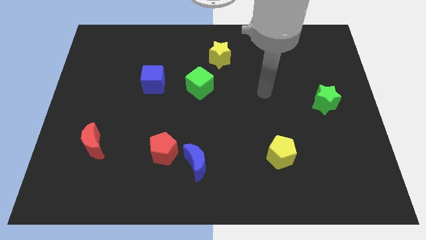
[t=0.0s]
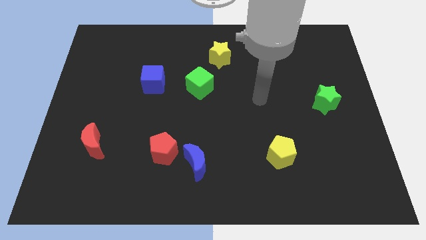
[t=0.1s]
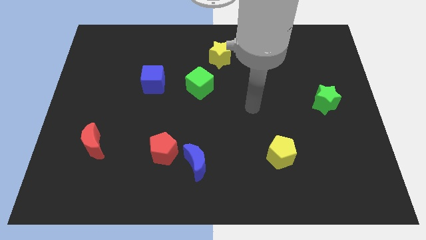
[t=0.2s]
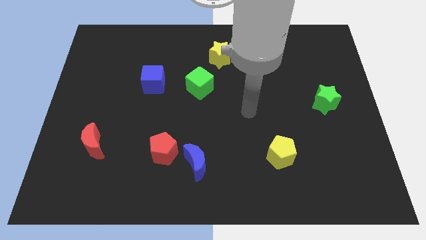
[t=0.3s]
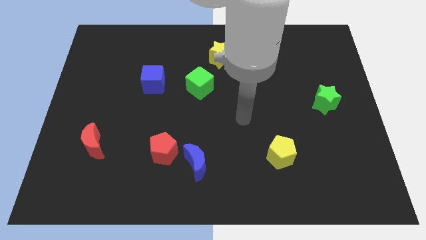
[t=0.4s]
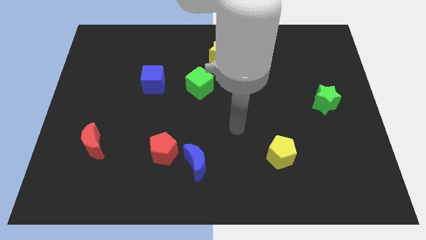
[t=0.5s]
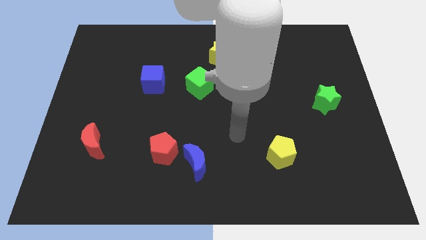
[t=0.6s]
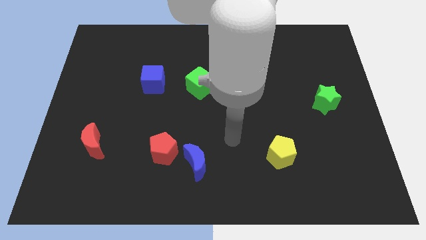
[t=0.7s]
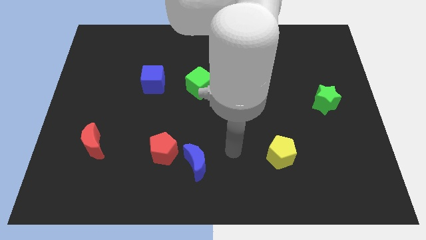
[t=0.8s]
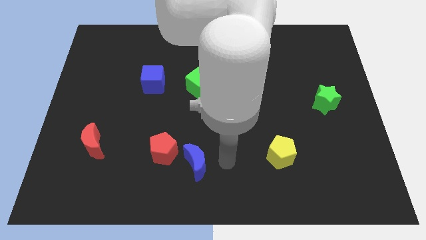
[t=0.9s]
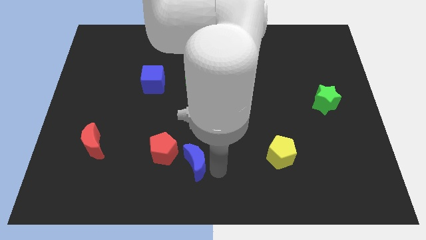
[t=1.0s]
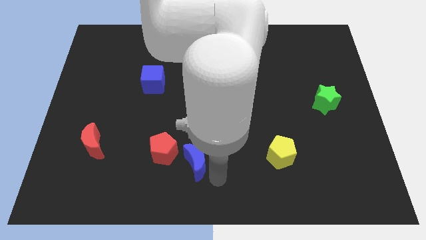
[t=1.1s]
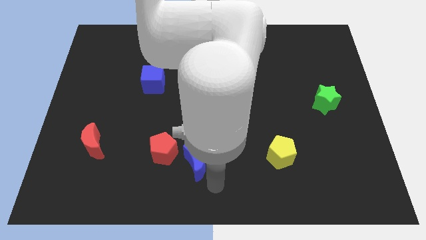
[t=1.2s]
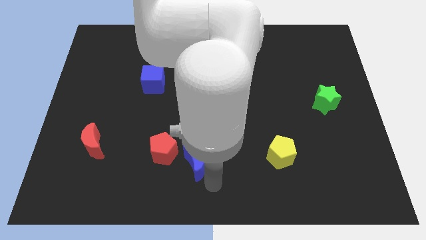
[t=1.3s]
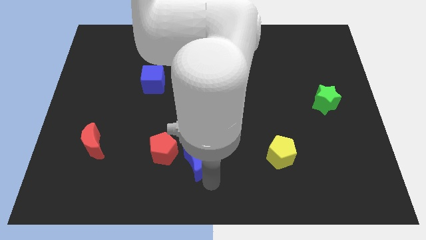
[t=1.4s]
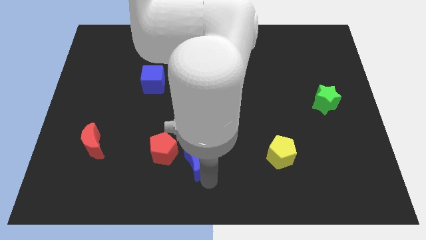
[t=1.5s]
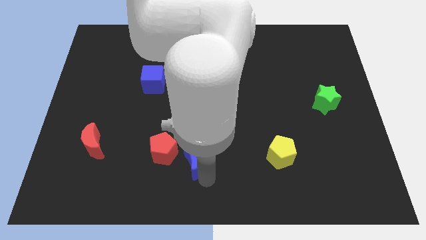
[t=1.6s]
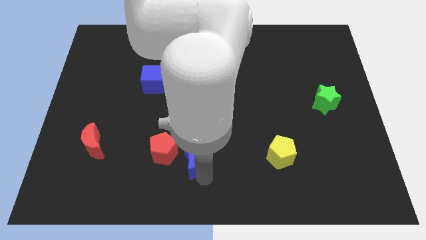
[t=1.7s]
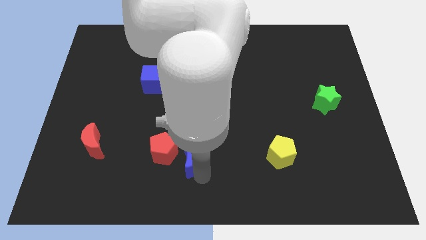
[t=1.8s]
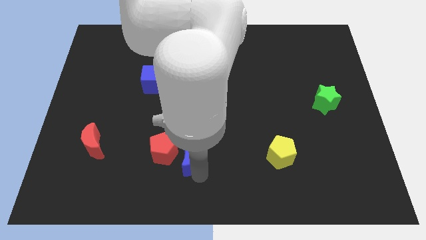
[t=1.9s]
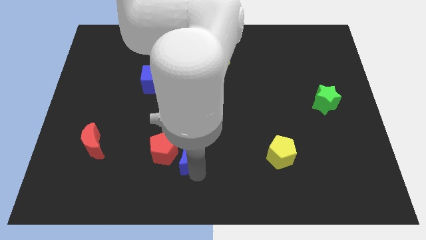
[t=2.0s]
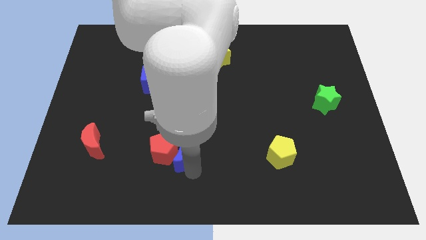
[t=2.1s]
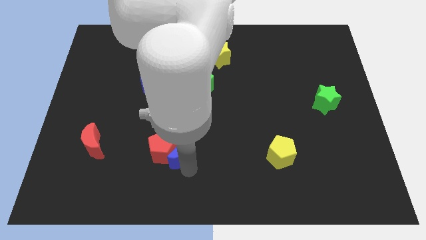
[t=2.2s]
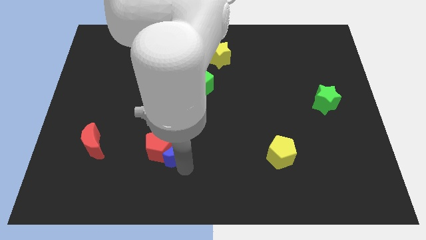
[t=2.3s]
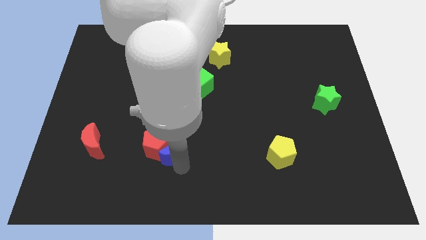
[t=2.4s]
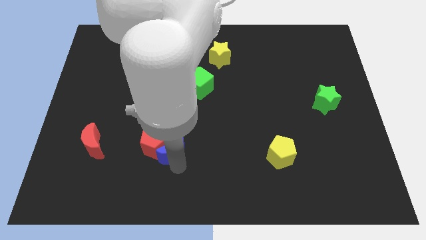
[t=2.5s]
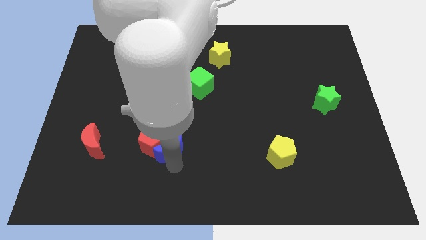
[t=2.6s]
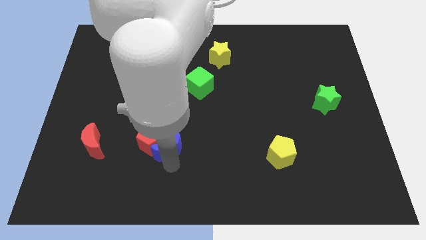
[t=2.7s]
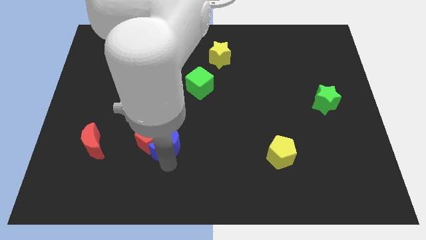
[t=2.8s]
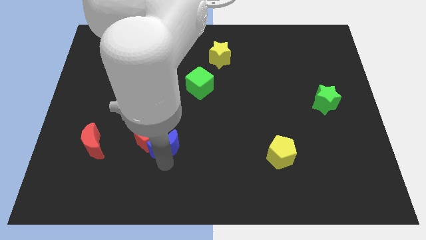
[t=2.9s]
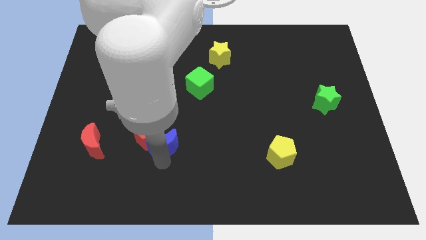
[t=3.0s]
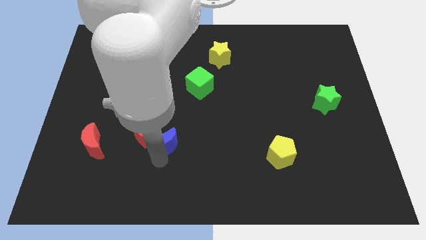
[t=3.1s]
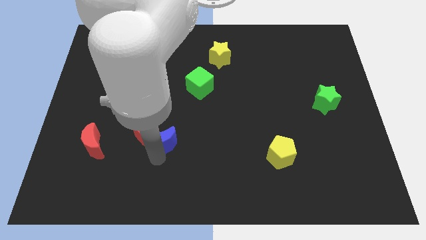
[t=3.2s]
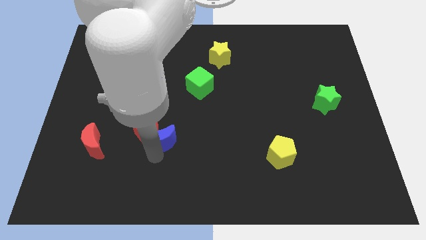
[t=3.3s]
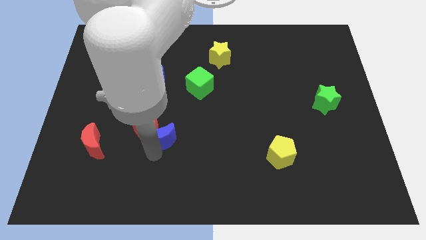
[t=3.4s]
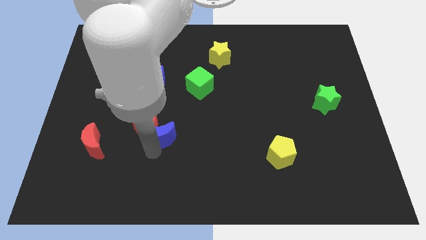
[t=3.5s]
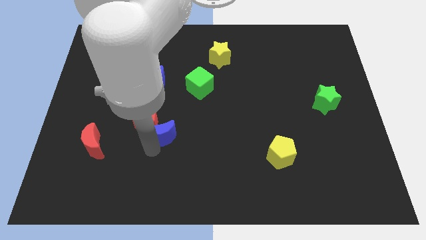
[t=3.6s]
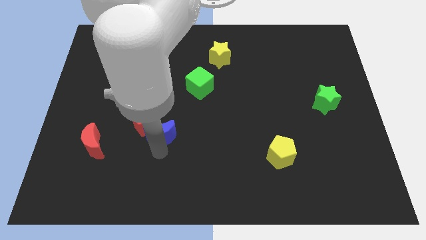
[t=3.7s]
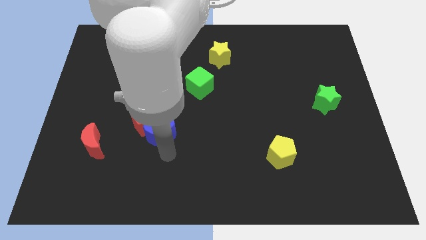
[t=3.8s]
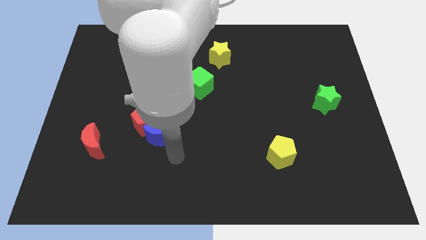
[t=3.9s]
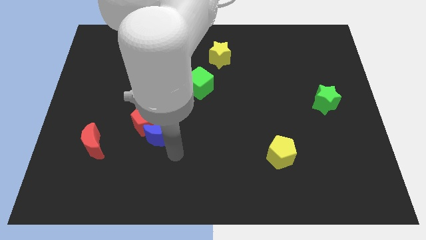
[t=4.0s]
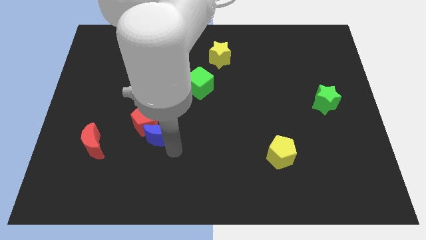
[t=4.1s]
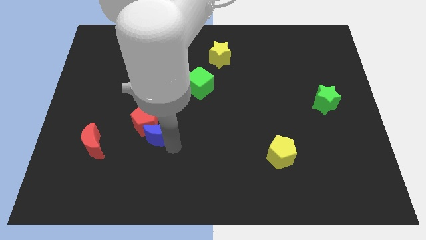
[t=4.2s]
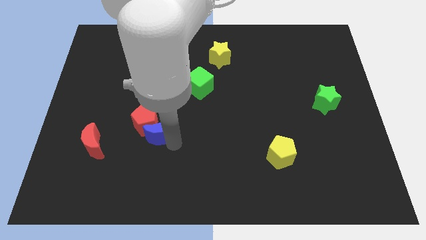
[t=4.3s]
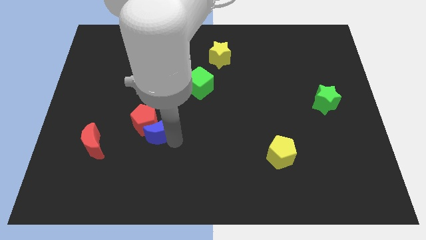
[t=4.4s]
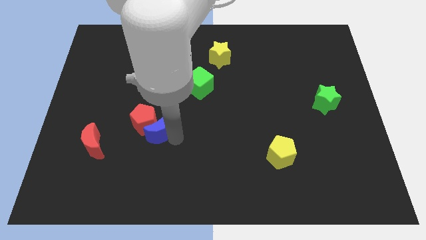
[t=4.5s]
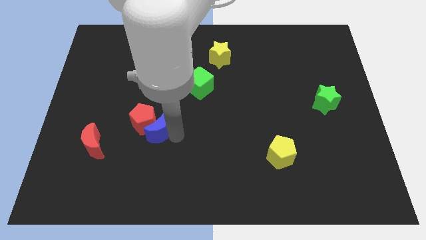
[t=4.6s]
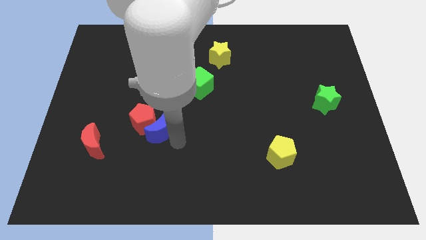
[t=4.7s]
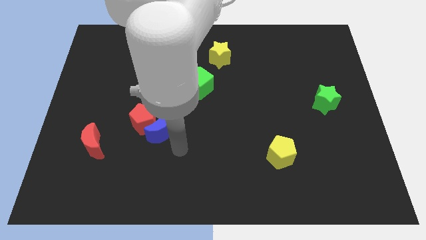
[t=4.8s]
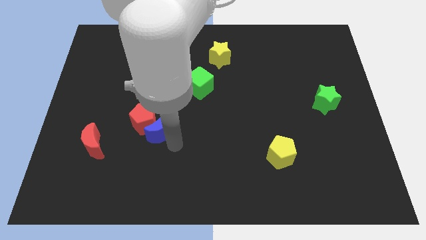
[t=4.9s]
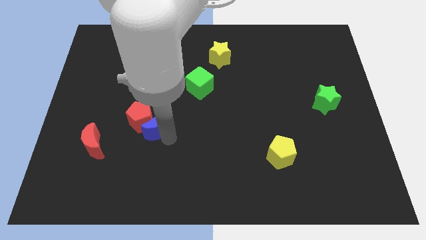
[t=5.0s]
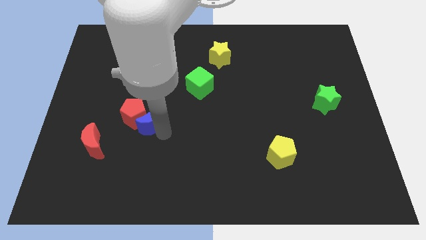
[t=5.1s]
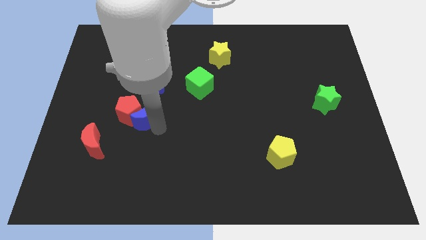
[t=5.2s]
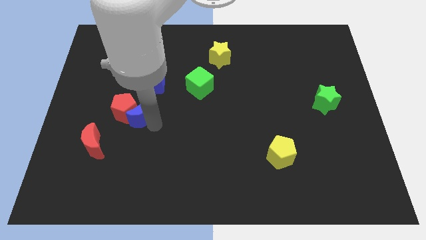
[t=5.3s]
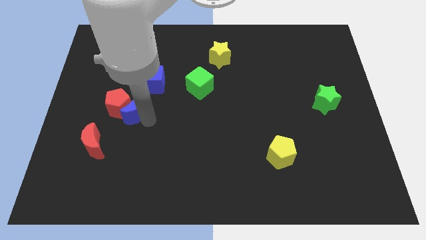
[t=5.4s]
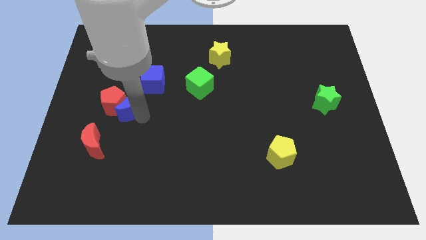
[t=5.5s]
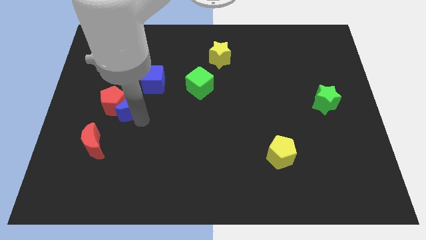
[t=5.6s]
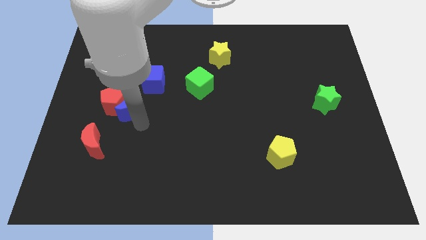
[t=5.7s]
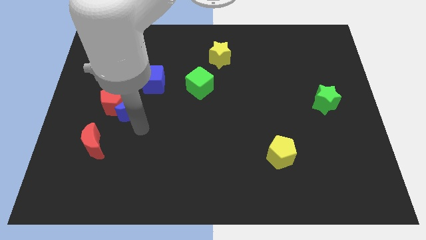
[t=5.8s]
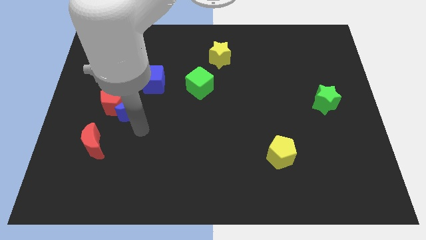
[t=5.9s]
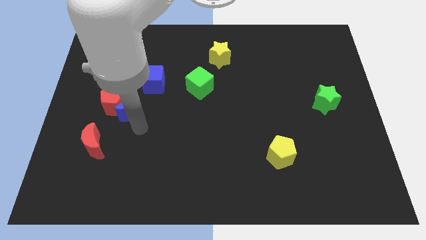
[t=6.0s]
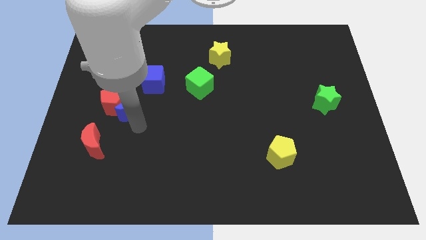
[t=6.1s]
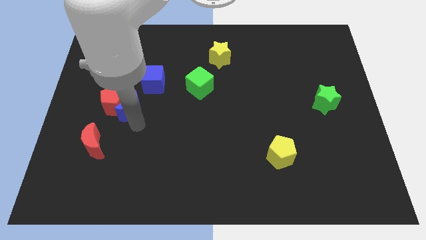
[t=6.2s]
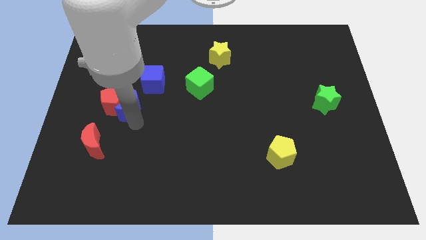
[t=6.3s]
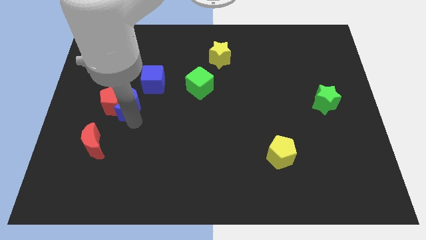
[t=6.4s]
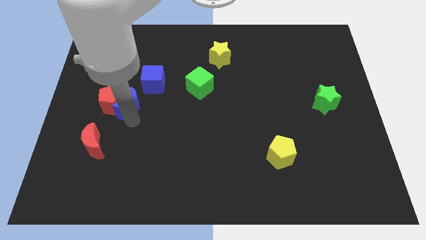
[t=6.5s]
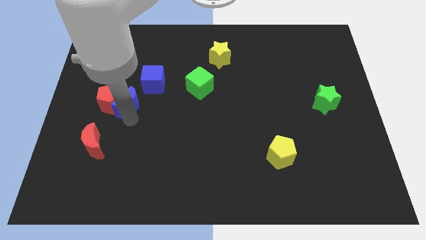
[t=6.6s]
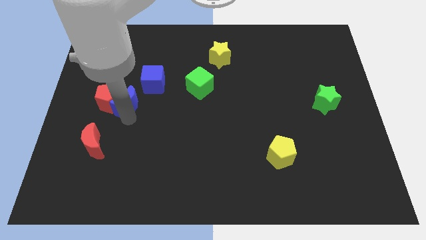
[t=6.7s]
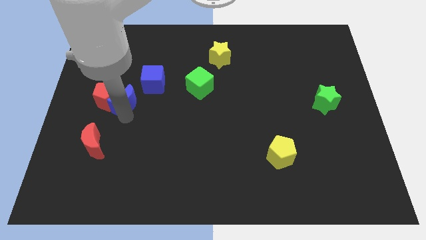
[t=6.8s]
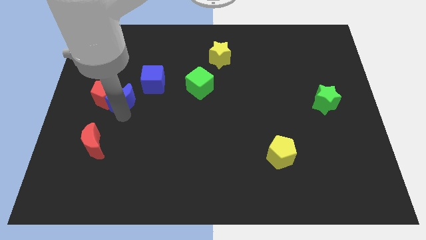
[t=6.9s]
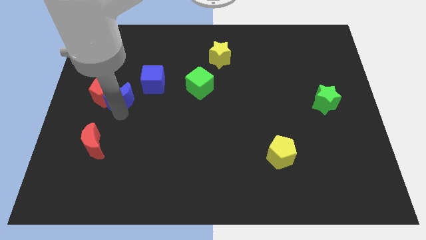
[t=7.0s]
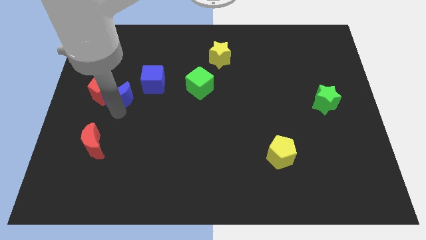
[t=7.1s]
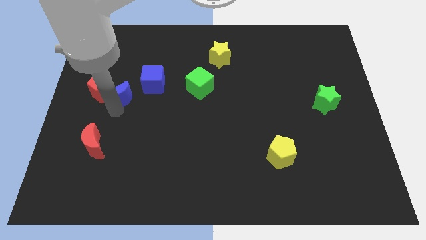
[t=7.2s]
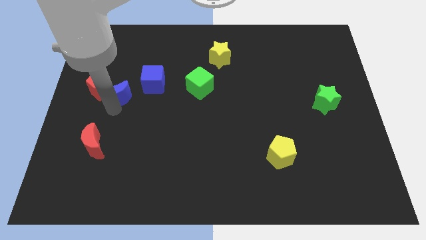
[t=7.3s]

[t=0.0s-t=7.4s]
put the blue moon just left of the blue cube

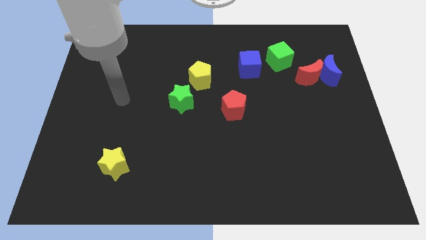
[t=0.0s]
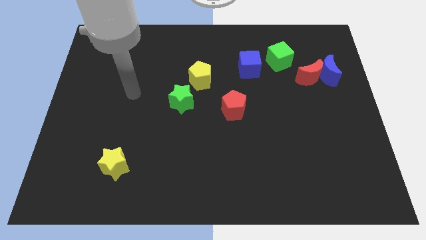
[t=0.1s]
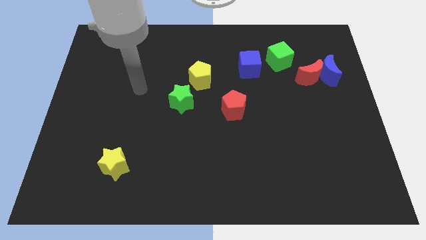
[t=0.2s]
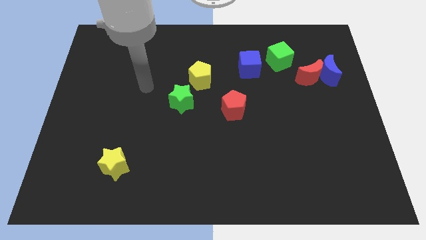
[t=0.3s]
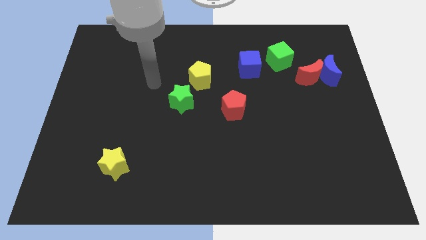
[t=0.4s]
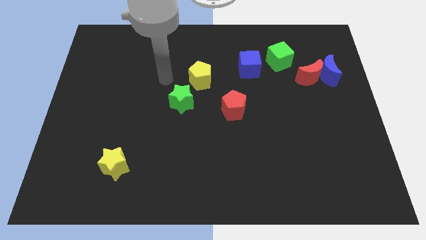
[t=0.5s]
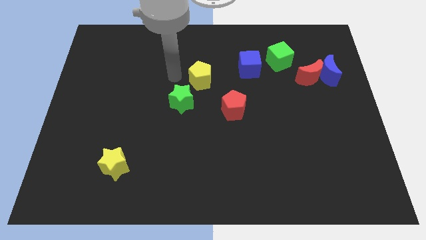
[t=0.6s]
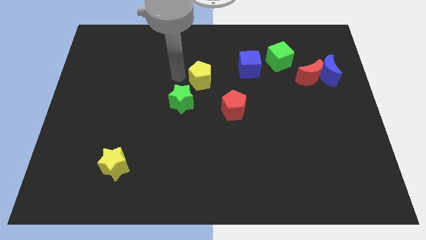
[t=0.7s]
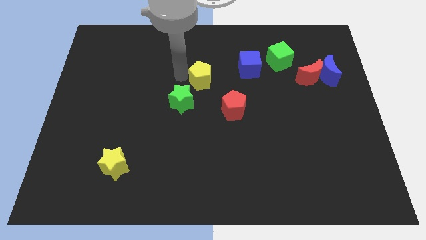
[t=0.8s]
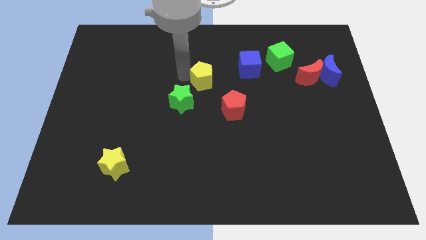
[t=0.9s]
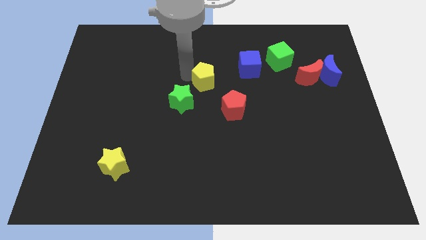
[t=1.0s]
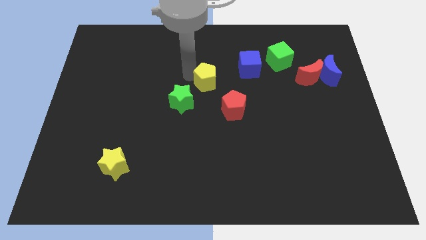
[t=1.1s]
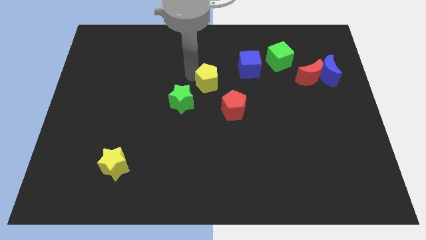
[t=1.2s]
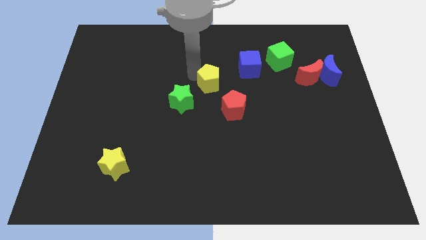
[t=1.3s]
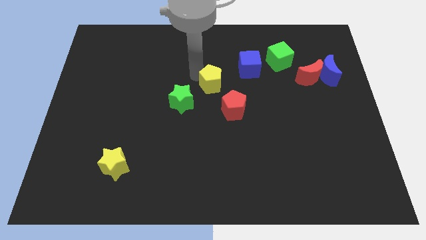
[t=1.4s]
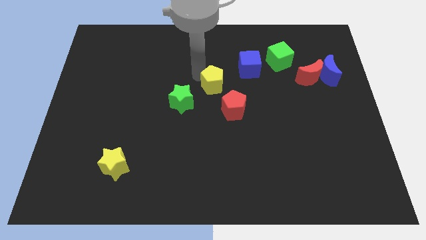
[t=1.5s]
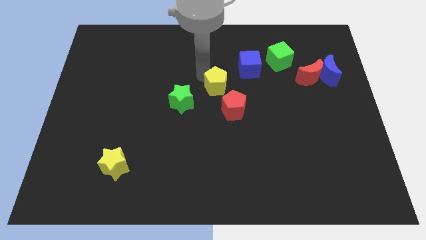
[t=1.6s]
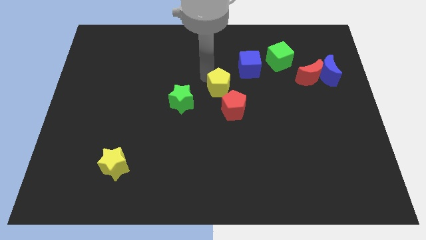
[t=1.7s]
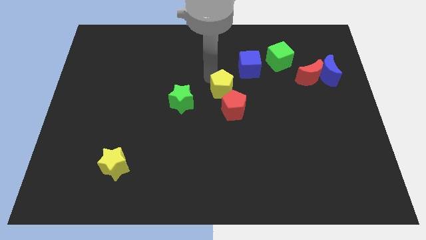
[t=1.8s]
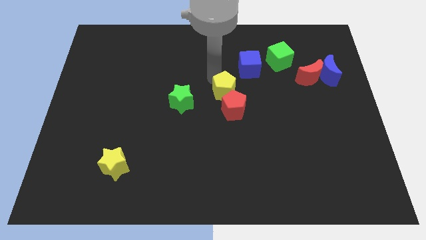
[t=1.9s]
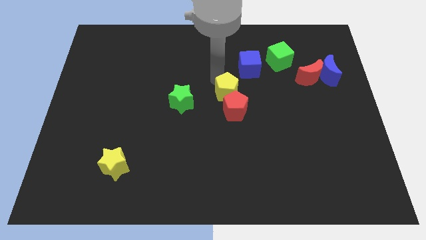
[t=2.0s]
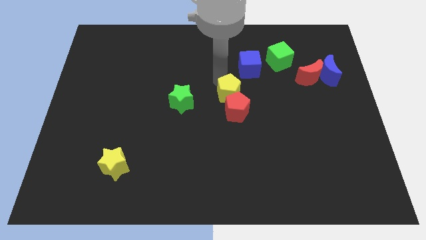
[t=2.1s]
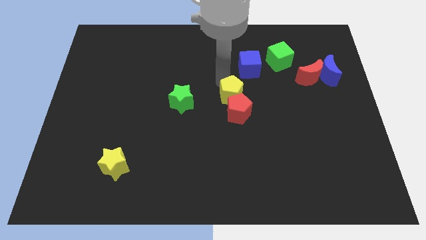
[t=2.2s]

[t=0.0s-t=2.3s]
move the yellow pentagon to the top right side of the red pentagon
